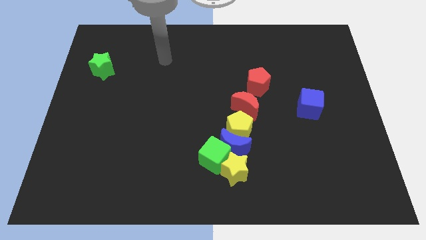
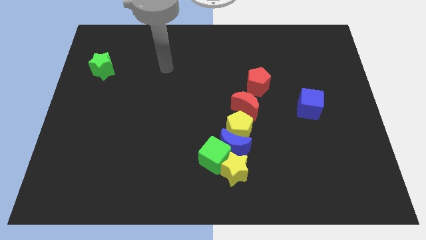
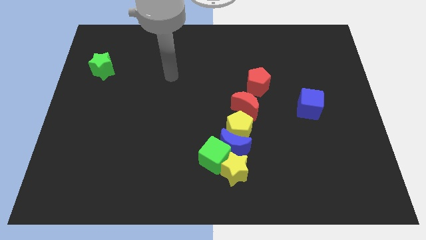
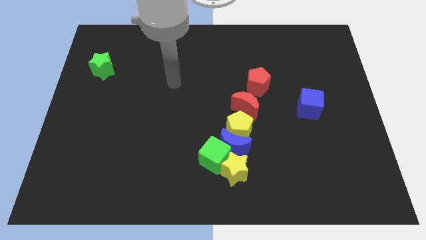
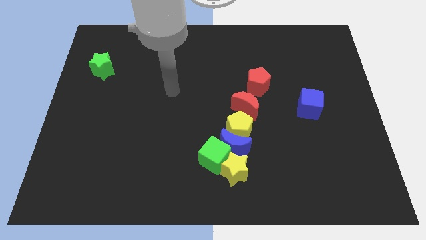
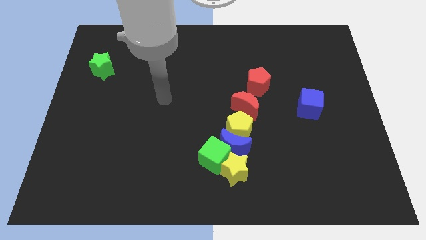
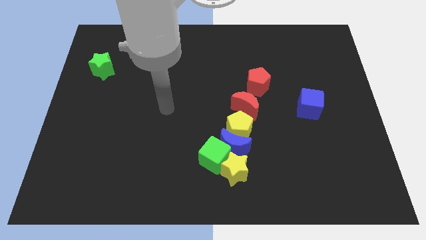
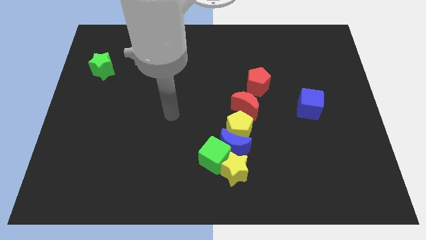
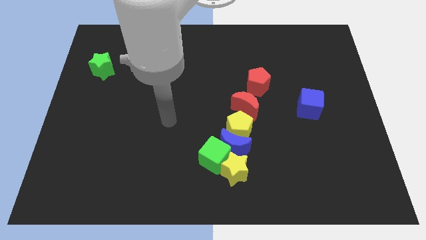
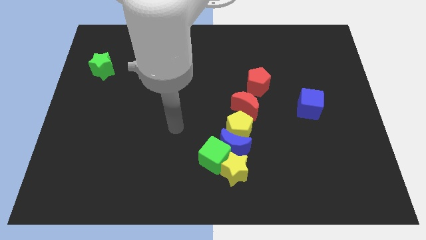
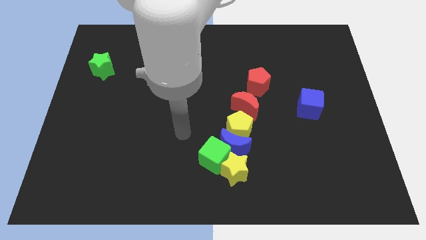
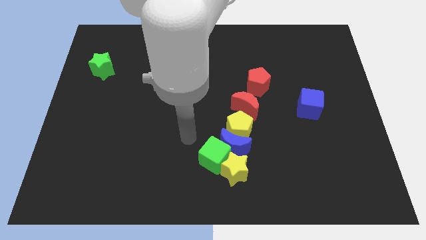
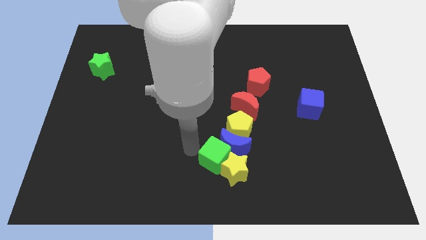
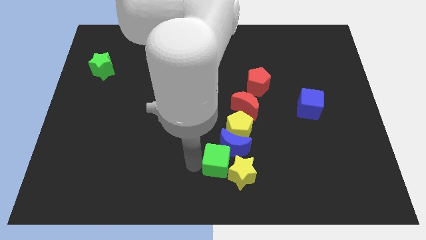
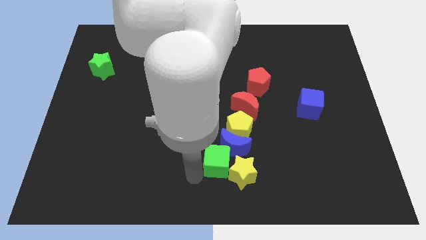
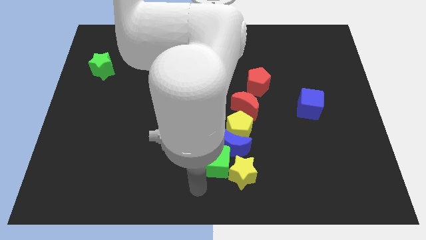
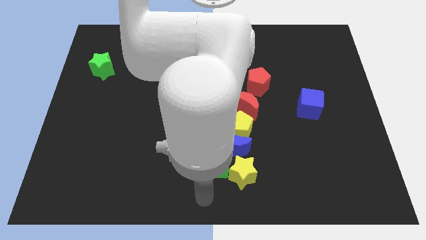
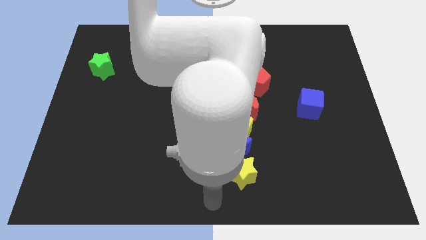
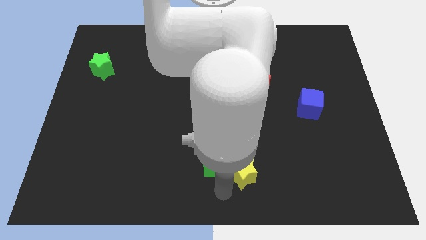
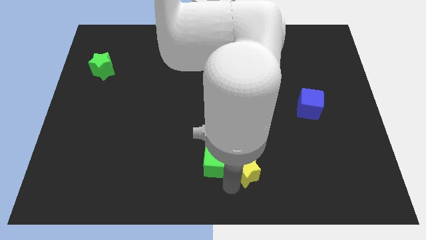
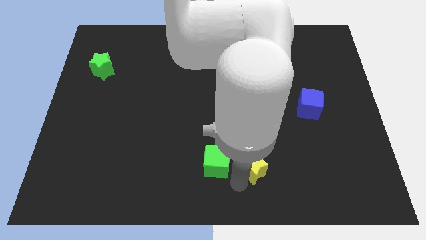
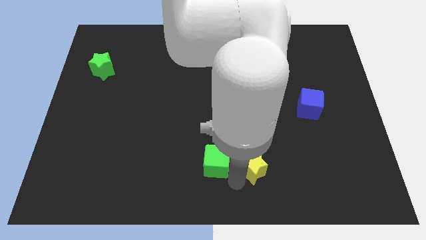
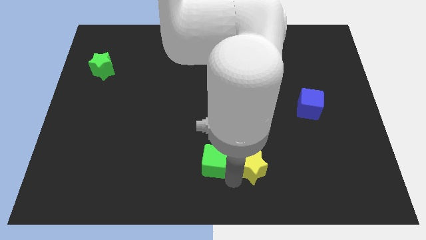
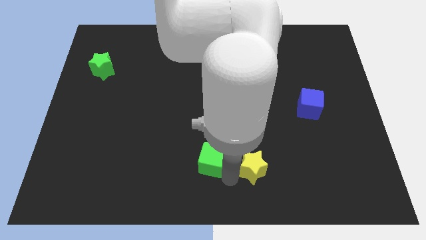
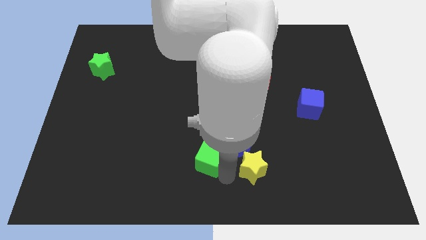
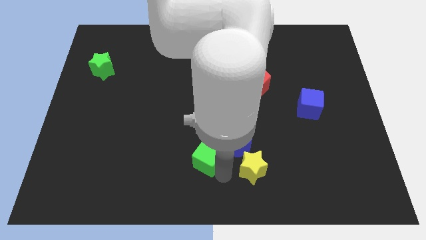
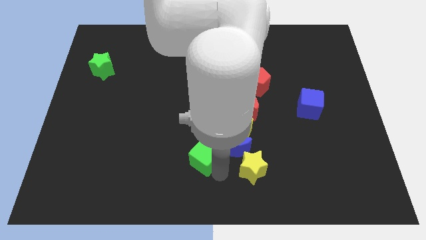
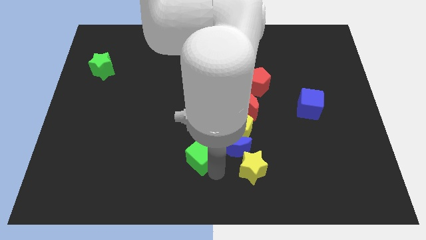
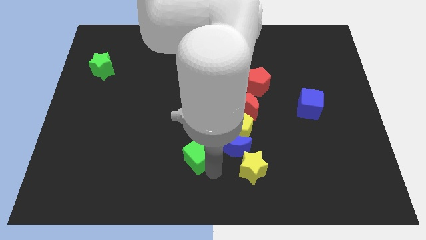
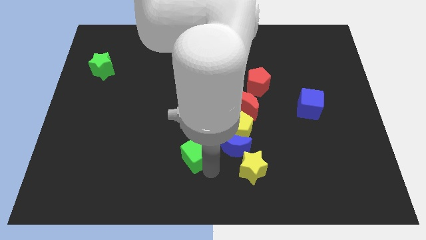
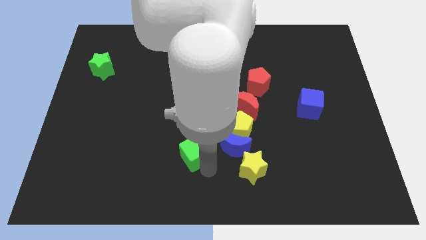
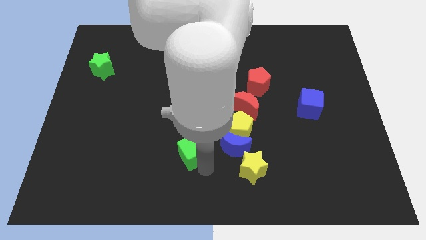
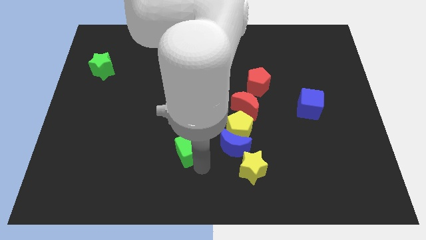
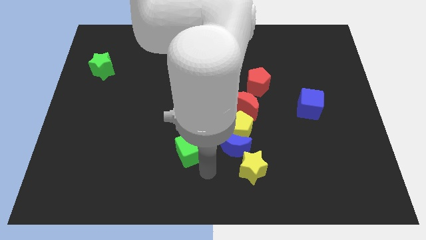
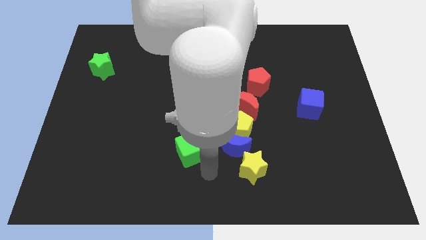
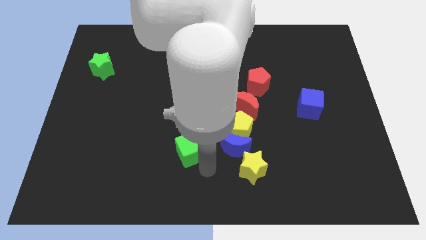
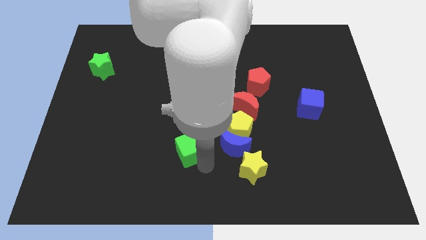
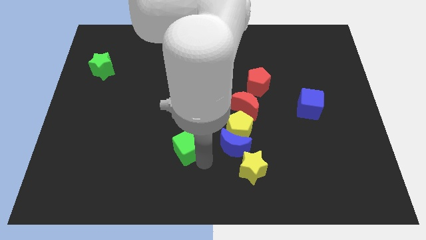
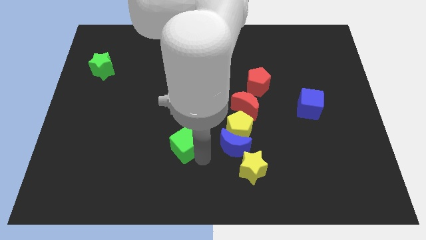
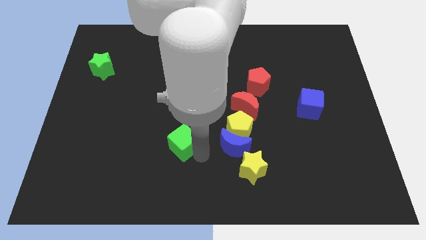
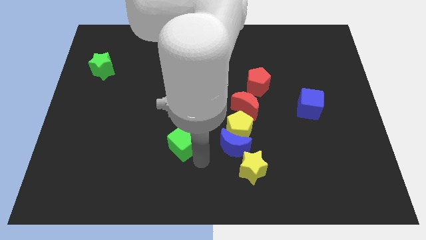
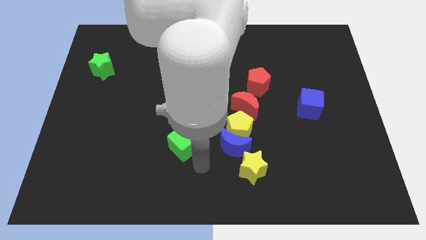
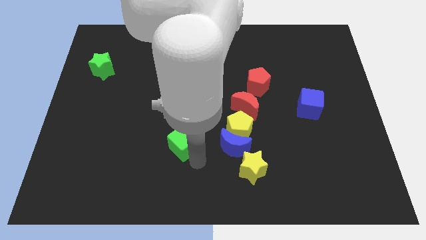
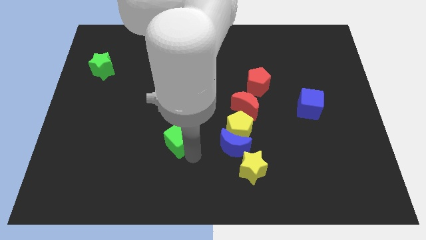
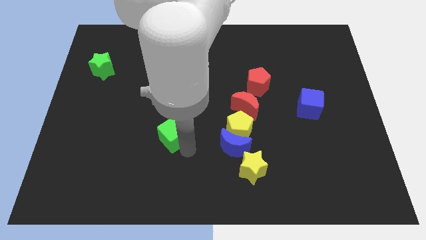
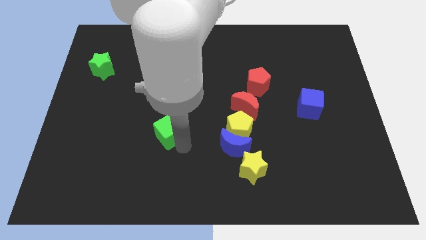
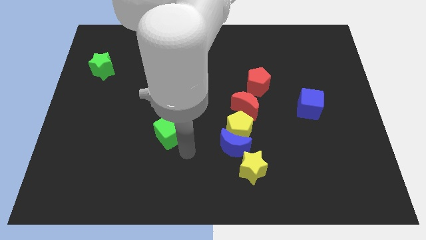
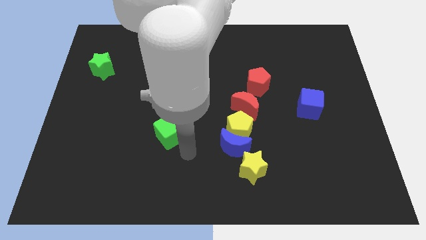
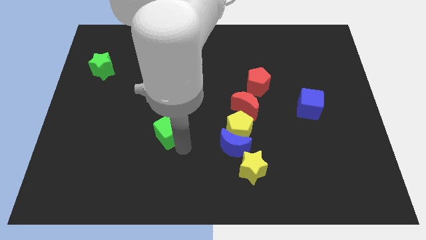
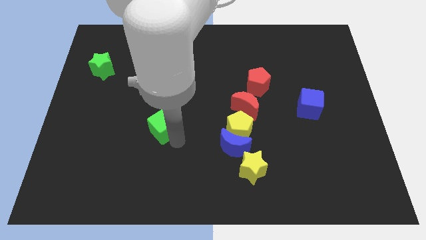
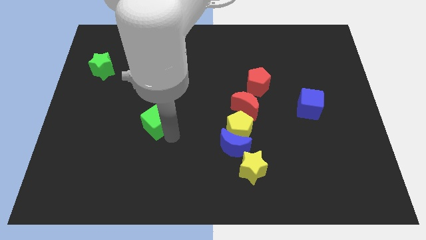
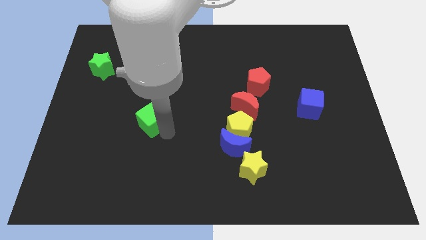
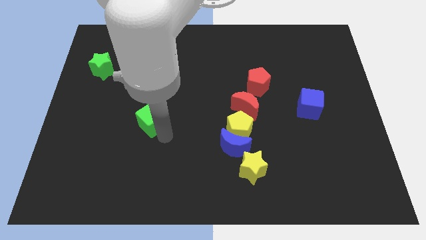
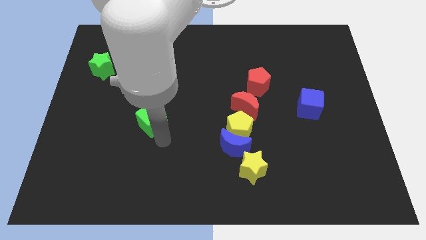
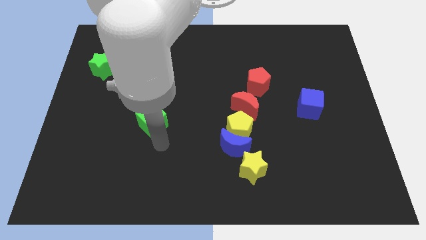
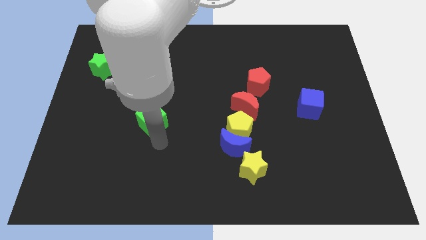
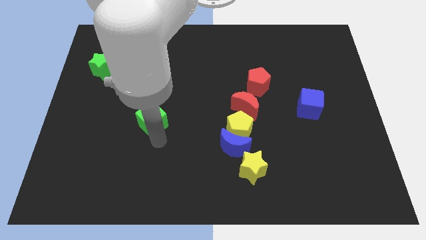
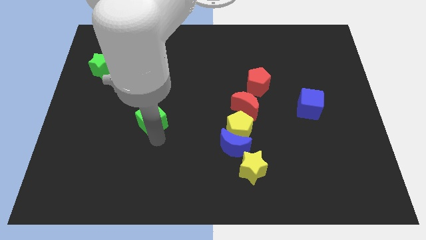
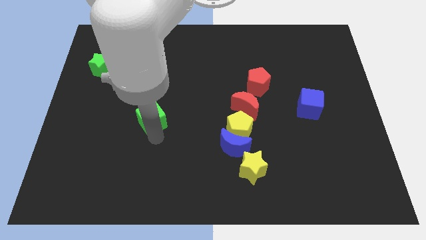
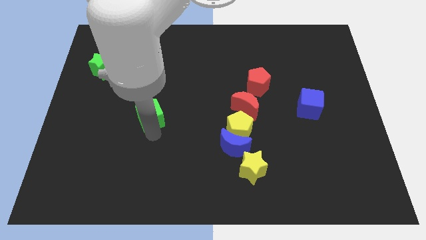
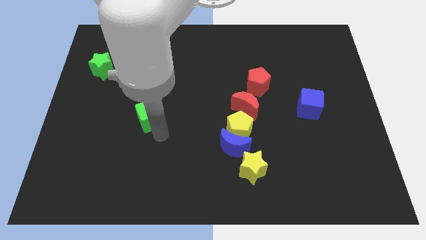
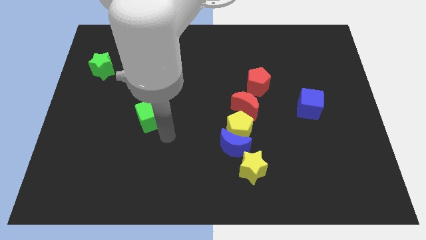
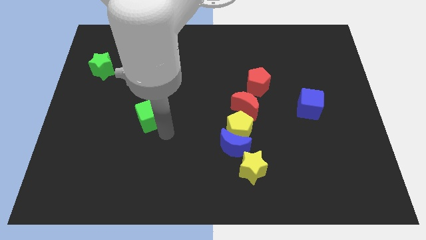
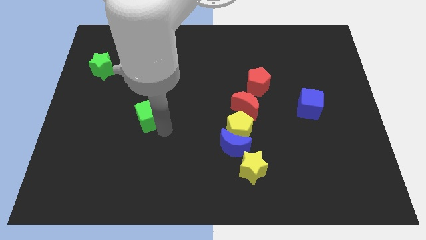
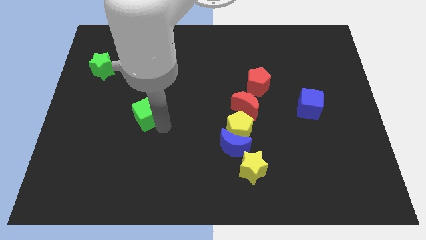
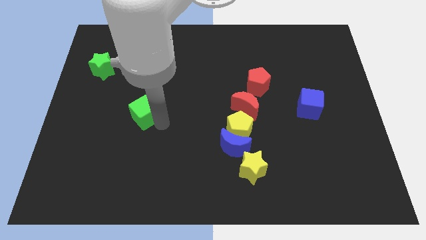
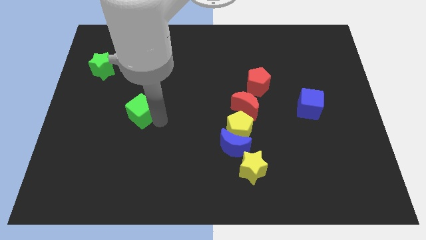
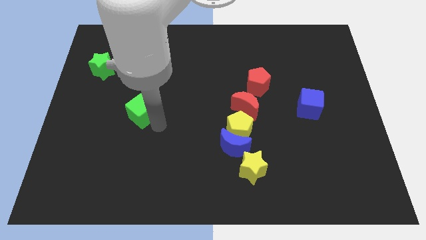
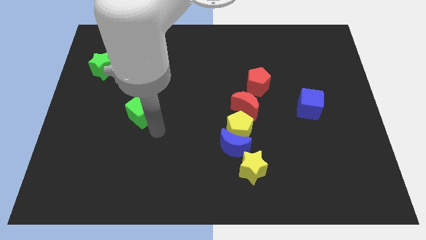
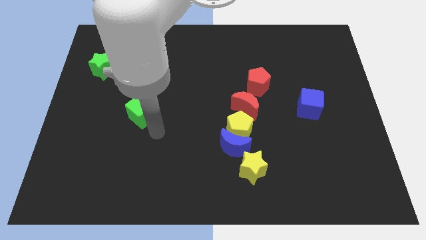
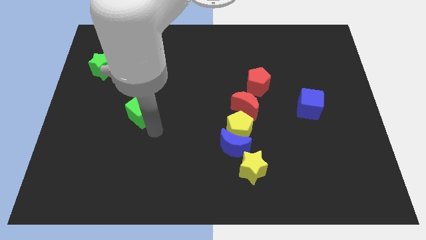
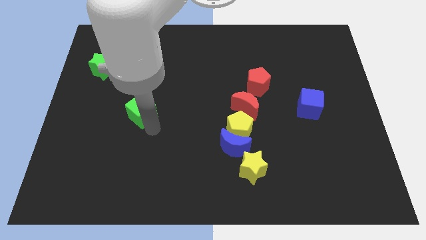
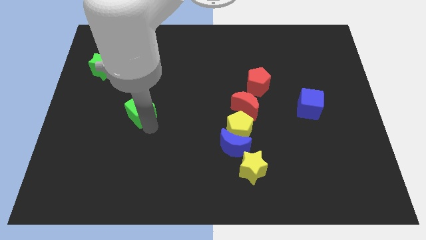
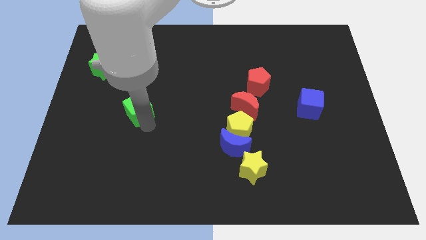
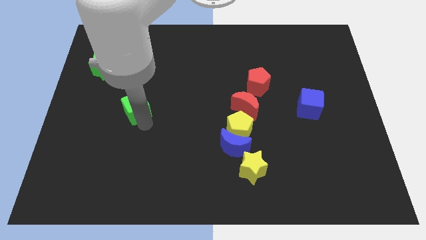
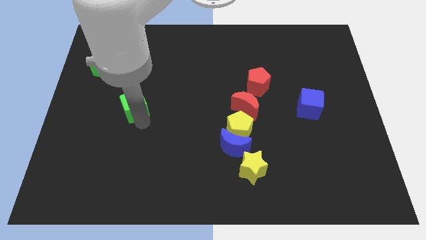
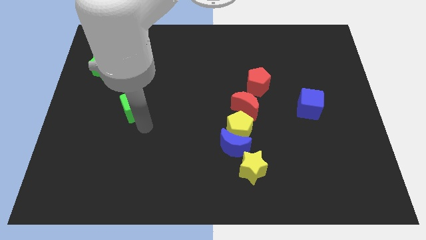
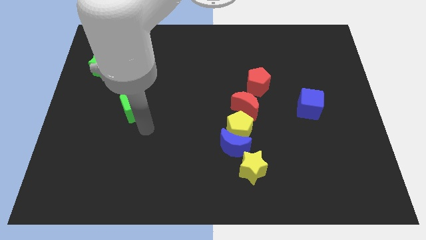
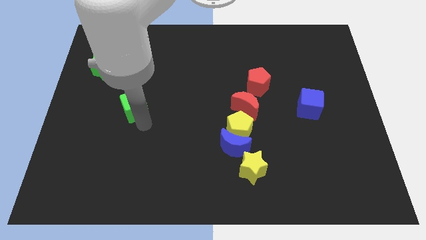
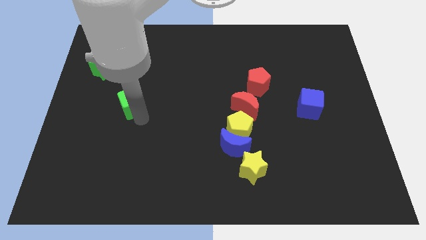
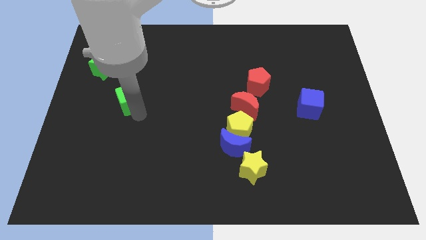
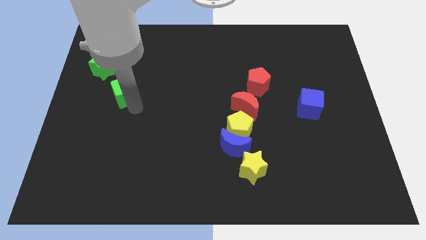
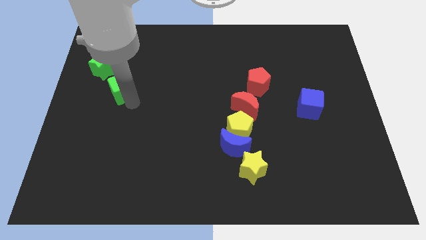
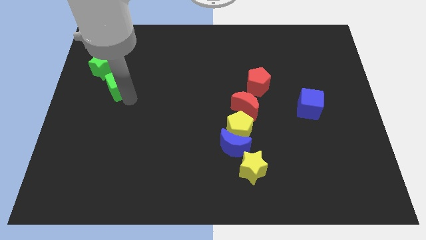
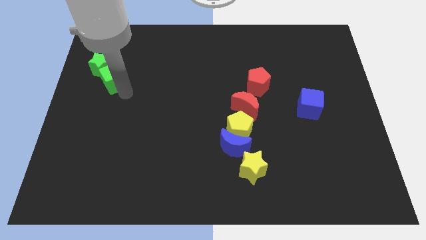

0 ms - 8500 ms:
push the green cube close to the green star
